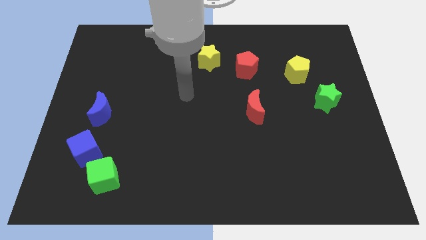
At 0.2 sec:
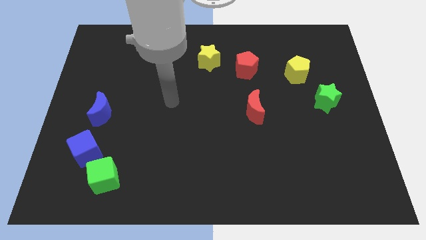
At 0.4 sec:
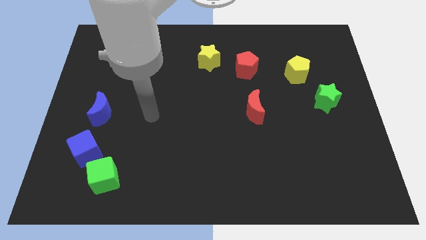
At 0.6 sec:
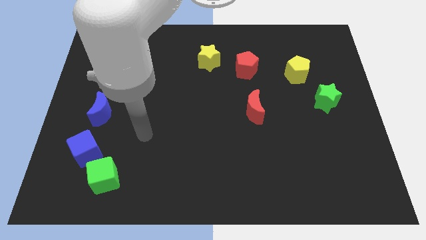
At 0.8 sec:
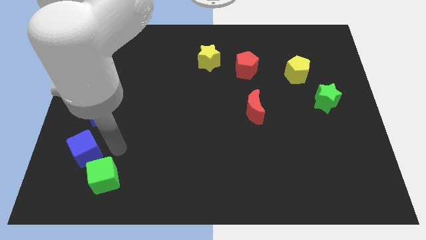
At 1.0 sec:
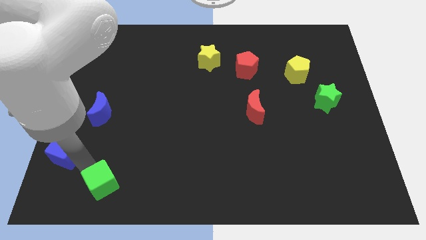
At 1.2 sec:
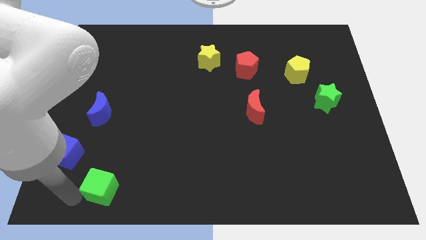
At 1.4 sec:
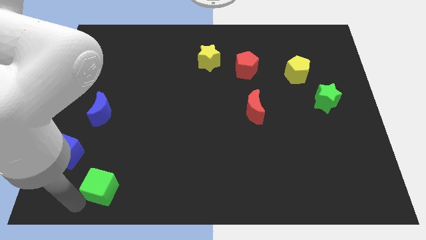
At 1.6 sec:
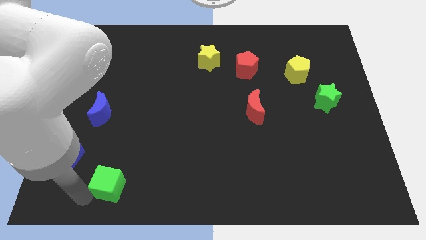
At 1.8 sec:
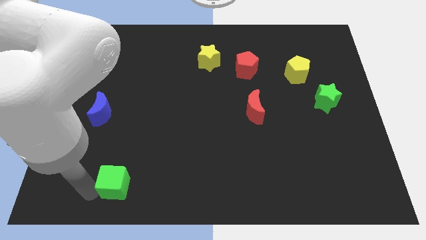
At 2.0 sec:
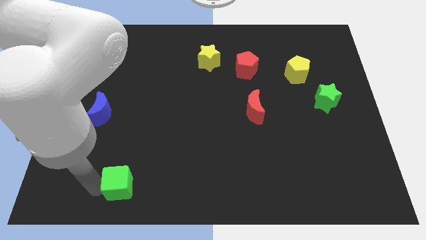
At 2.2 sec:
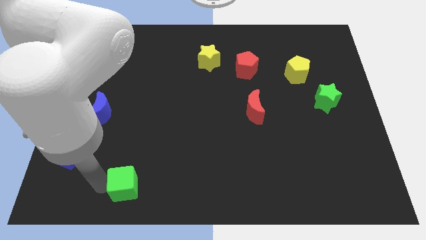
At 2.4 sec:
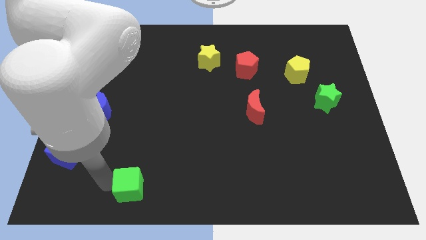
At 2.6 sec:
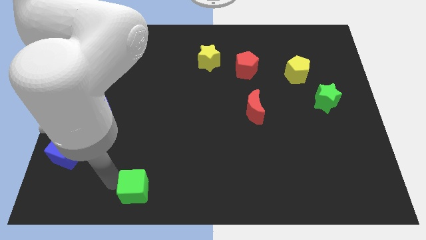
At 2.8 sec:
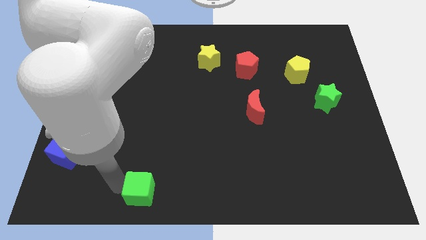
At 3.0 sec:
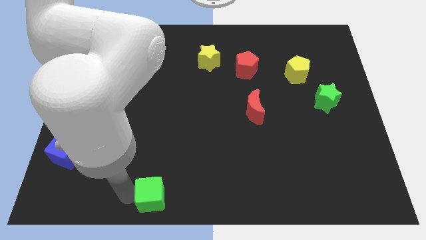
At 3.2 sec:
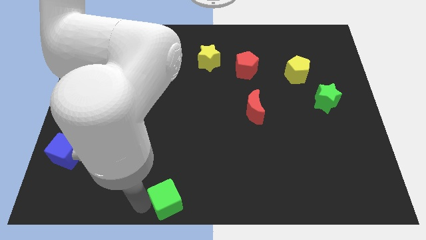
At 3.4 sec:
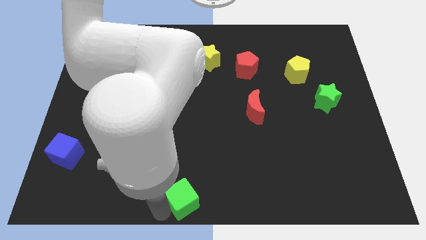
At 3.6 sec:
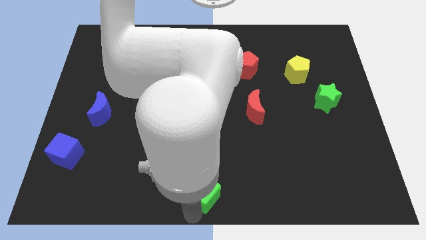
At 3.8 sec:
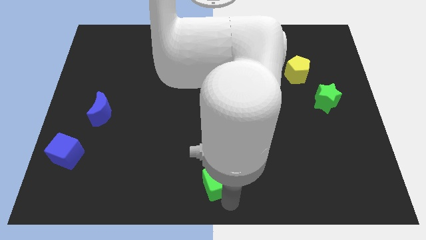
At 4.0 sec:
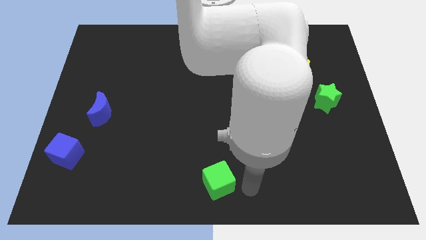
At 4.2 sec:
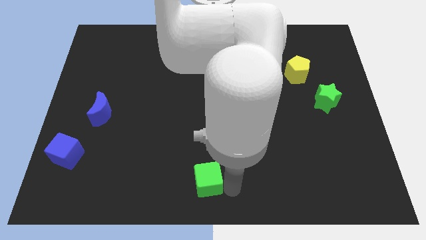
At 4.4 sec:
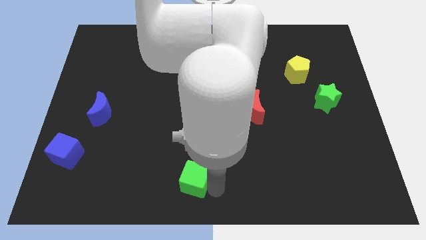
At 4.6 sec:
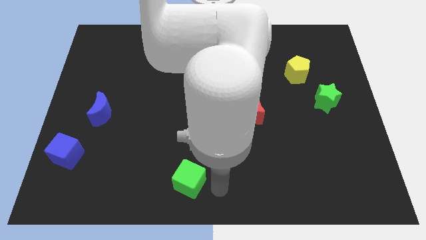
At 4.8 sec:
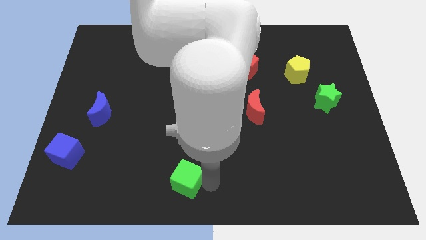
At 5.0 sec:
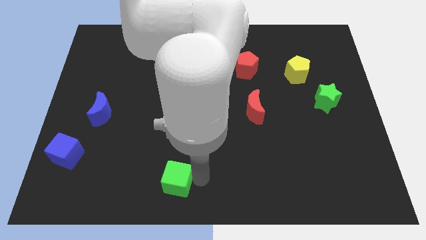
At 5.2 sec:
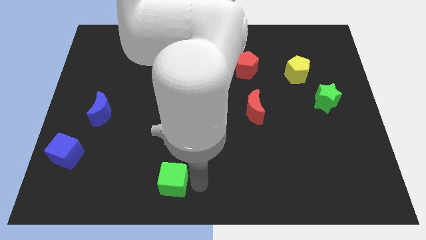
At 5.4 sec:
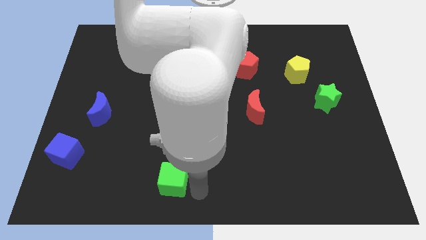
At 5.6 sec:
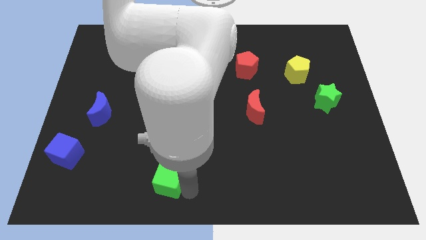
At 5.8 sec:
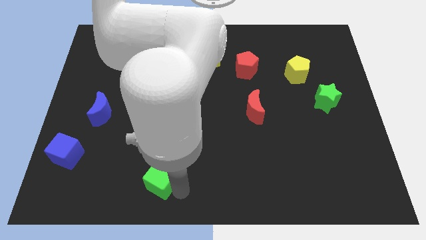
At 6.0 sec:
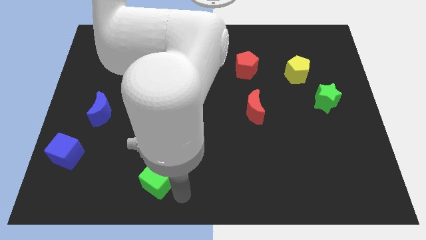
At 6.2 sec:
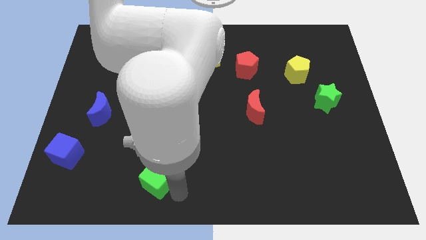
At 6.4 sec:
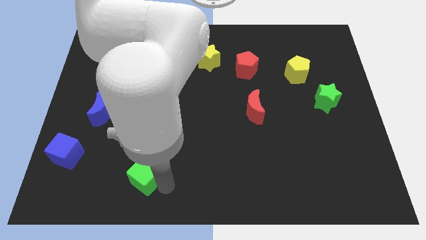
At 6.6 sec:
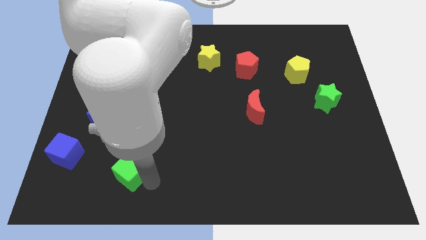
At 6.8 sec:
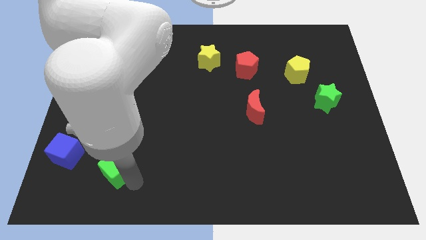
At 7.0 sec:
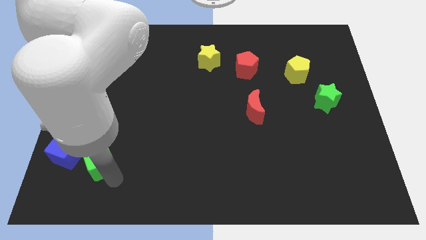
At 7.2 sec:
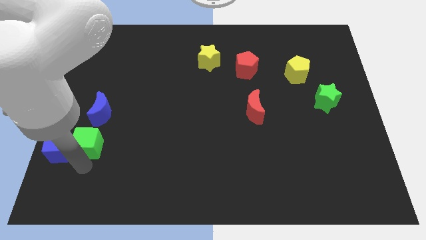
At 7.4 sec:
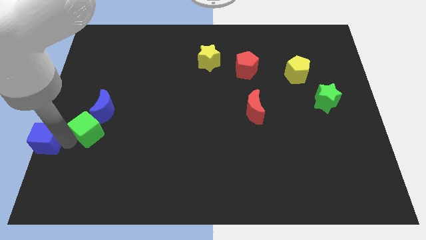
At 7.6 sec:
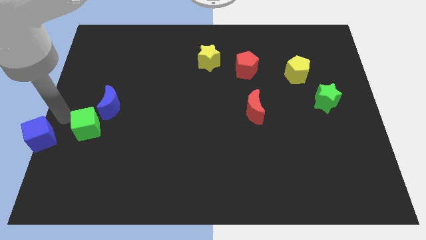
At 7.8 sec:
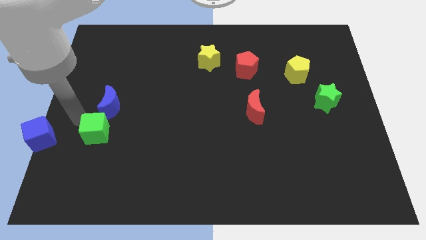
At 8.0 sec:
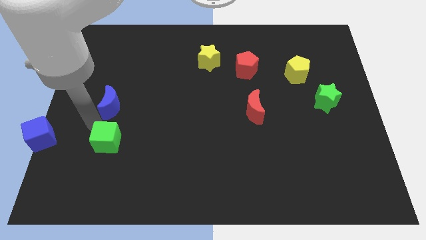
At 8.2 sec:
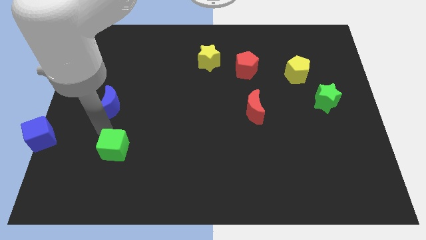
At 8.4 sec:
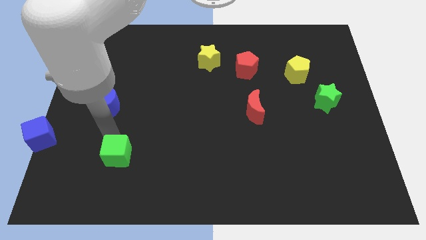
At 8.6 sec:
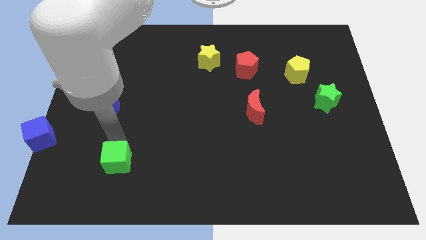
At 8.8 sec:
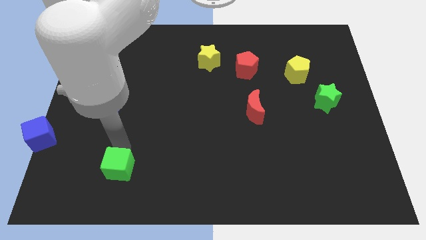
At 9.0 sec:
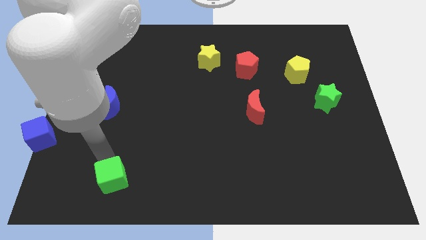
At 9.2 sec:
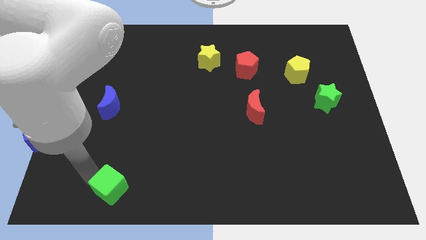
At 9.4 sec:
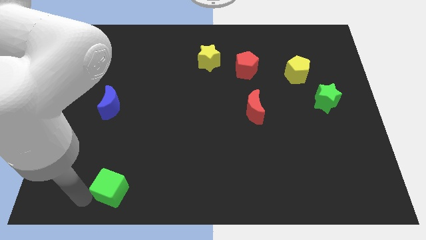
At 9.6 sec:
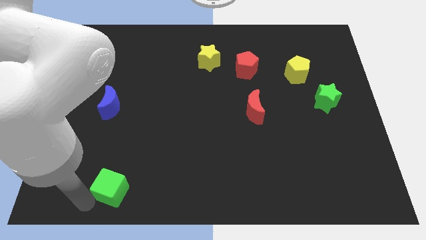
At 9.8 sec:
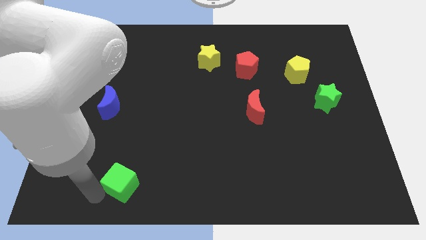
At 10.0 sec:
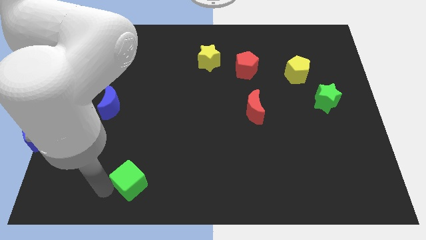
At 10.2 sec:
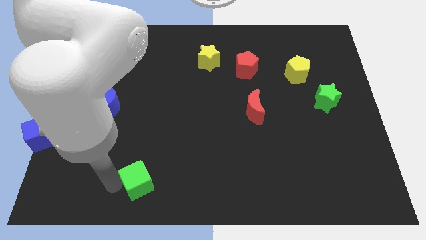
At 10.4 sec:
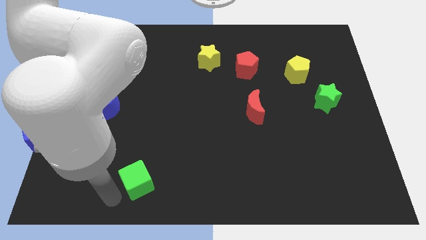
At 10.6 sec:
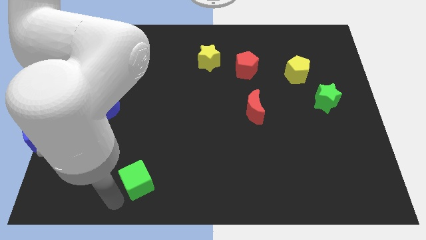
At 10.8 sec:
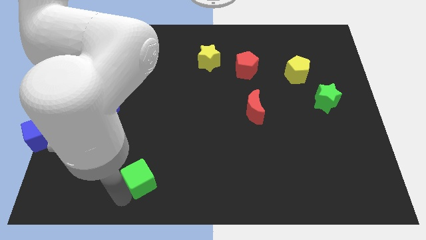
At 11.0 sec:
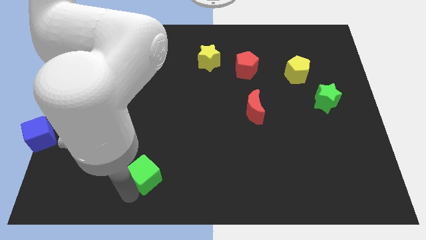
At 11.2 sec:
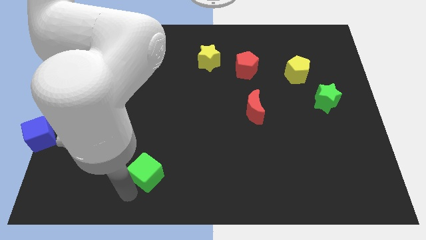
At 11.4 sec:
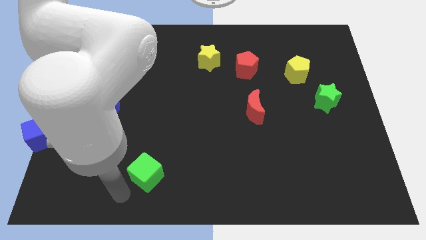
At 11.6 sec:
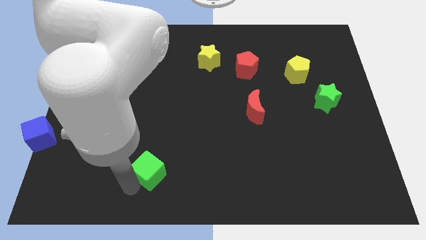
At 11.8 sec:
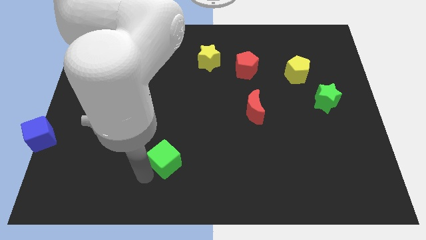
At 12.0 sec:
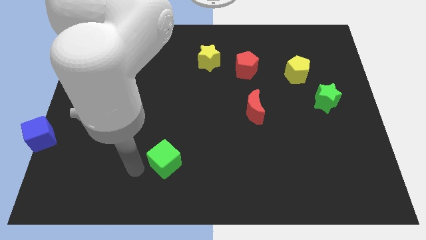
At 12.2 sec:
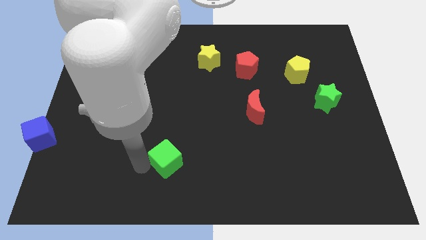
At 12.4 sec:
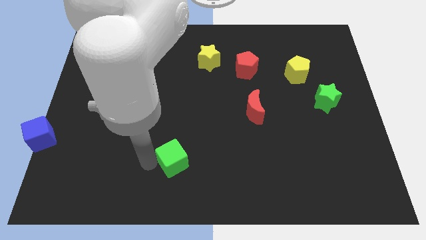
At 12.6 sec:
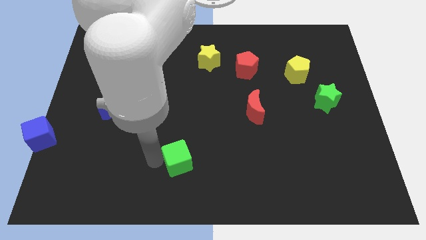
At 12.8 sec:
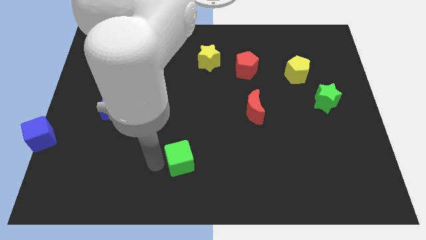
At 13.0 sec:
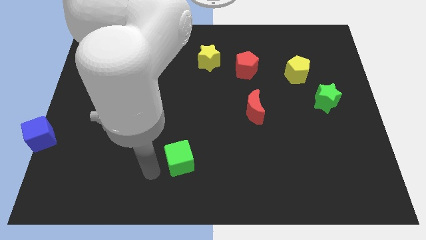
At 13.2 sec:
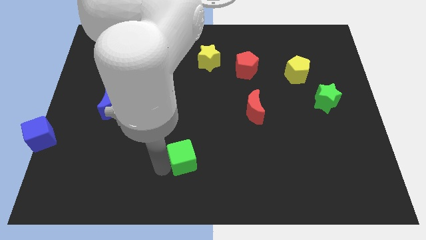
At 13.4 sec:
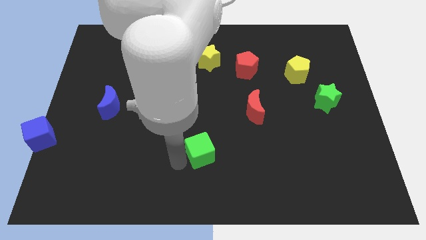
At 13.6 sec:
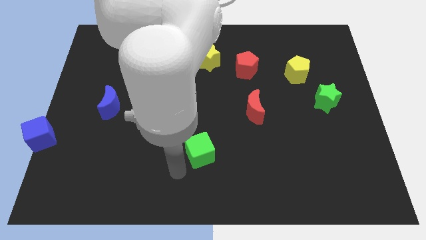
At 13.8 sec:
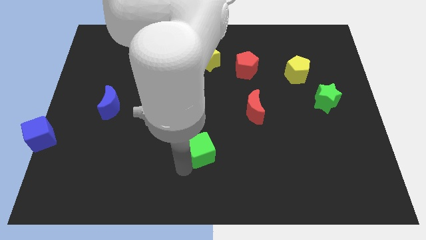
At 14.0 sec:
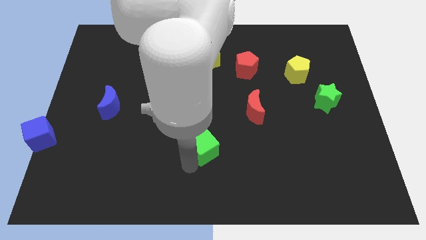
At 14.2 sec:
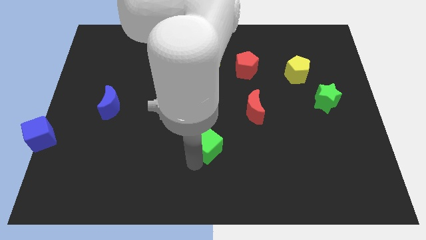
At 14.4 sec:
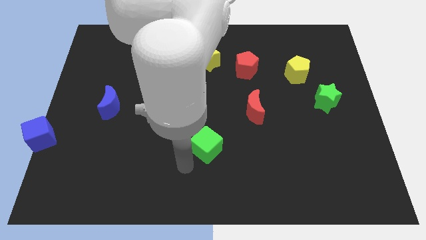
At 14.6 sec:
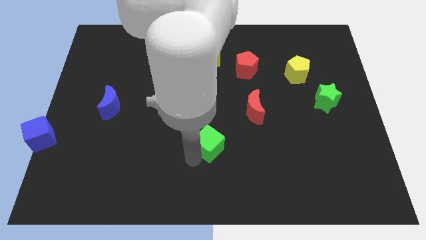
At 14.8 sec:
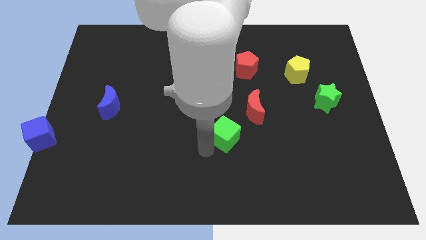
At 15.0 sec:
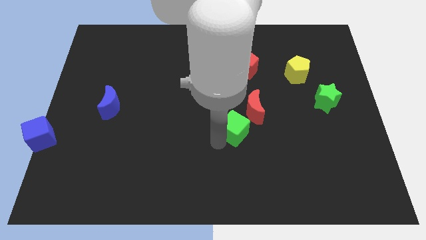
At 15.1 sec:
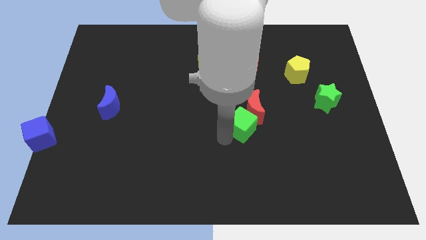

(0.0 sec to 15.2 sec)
move the green cube to the red moon
